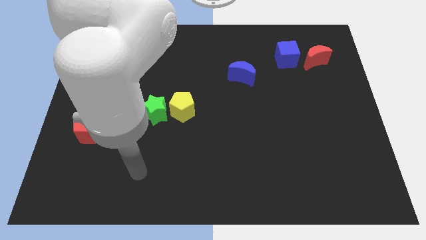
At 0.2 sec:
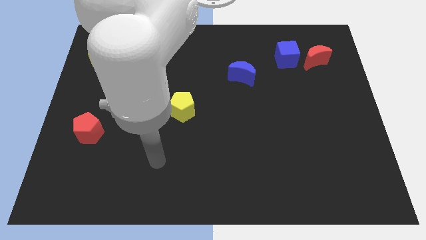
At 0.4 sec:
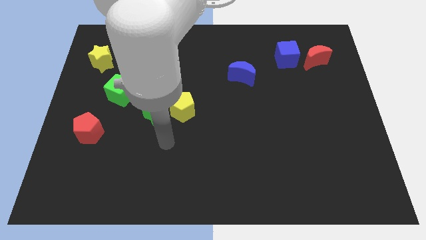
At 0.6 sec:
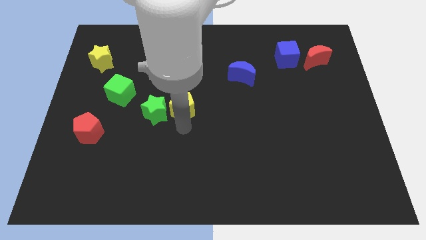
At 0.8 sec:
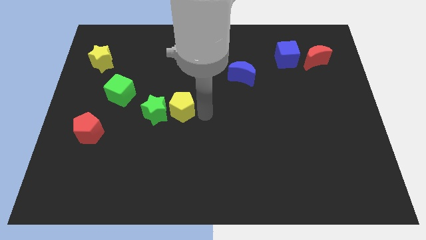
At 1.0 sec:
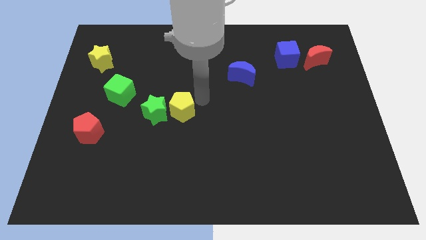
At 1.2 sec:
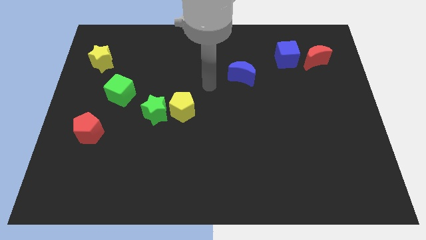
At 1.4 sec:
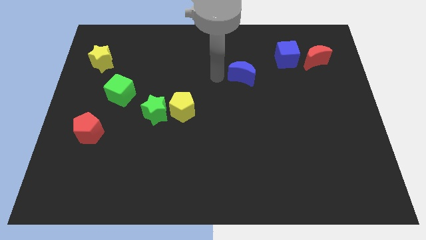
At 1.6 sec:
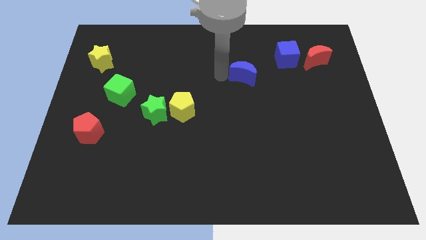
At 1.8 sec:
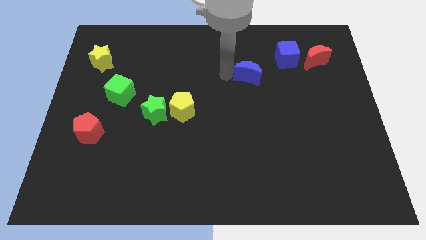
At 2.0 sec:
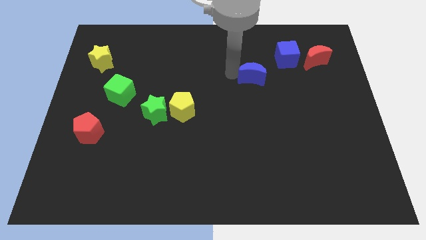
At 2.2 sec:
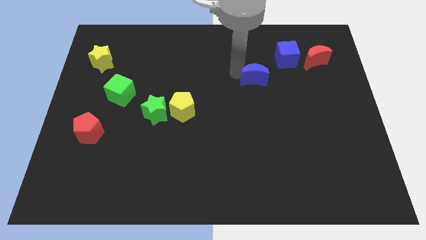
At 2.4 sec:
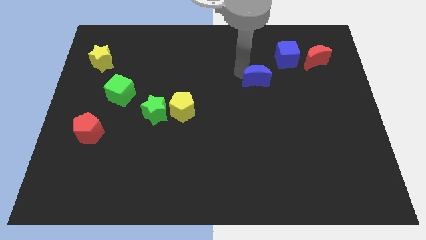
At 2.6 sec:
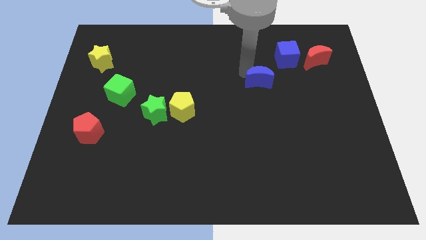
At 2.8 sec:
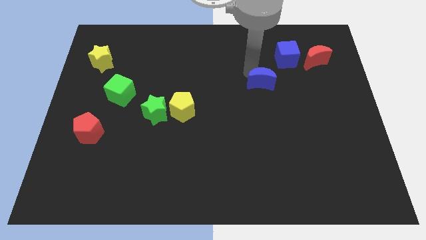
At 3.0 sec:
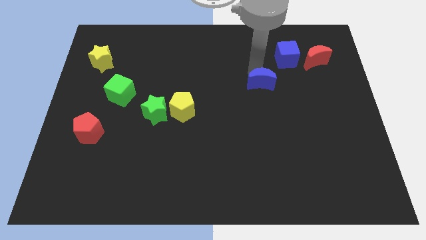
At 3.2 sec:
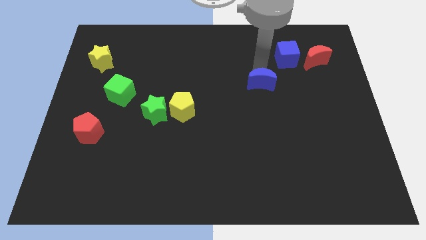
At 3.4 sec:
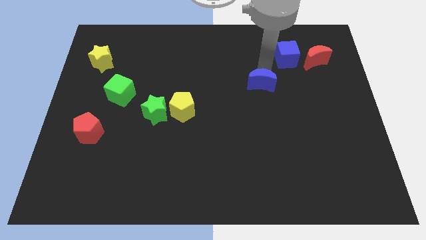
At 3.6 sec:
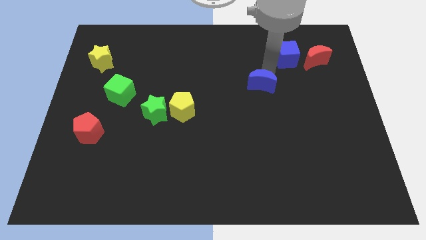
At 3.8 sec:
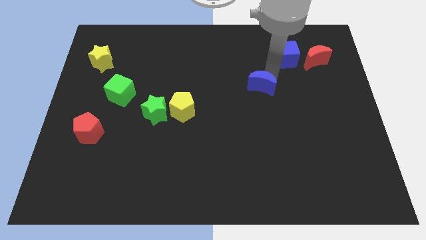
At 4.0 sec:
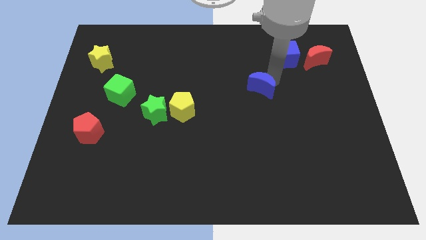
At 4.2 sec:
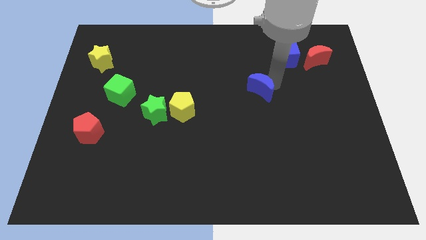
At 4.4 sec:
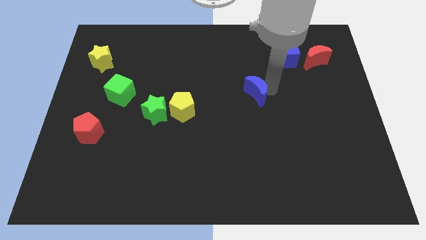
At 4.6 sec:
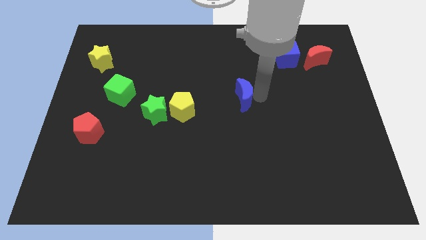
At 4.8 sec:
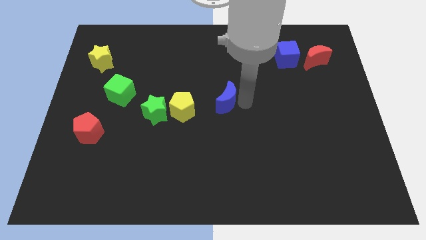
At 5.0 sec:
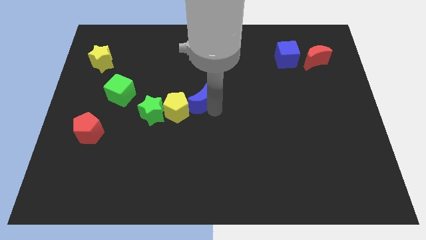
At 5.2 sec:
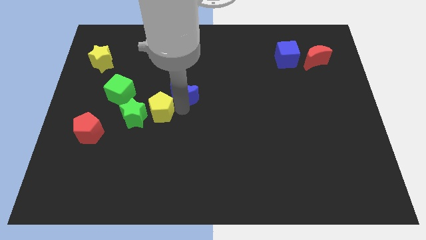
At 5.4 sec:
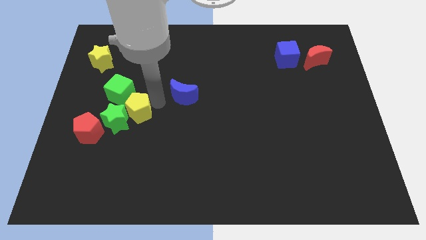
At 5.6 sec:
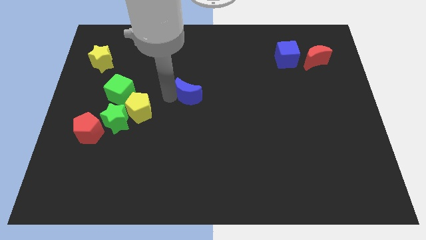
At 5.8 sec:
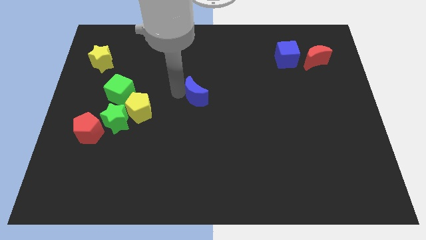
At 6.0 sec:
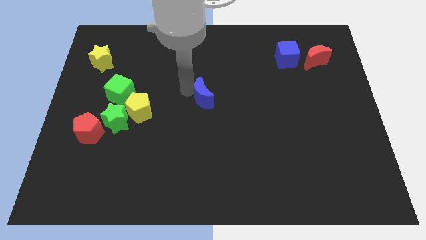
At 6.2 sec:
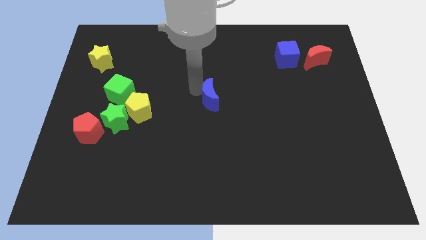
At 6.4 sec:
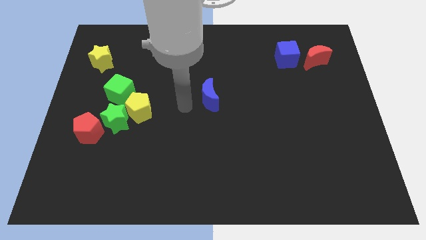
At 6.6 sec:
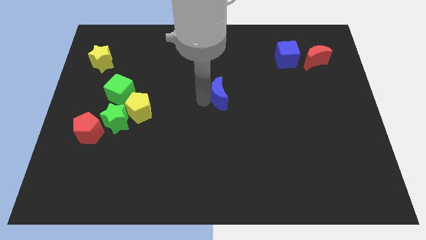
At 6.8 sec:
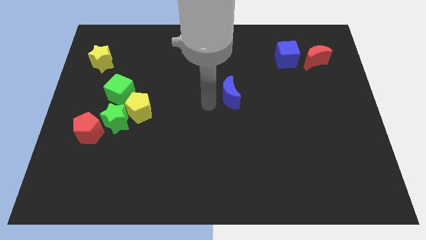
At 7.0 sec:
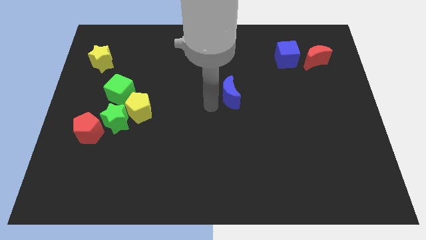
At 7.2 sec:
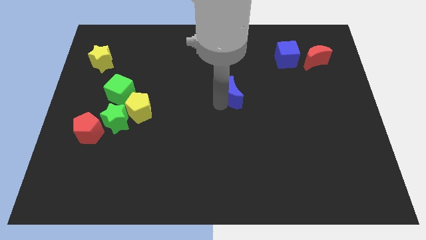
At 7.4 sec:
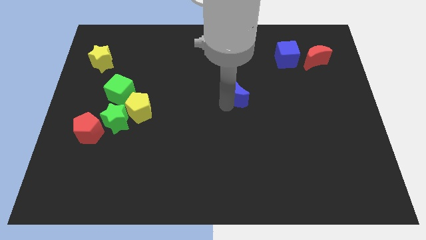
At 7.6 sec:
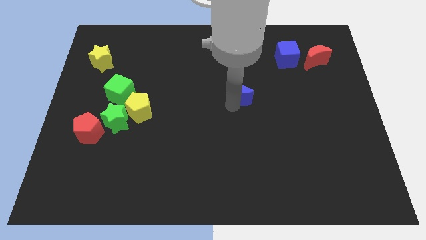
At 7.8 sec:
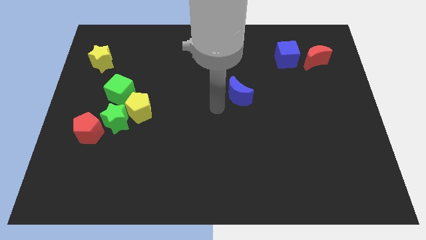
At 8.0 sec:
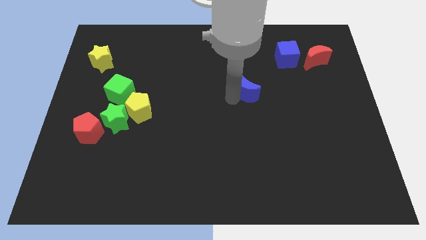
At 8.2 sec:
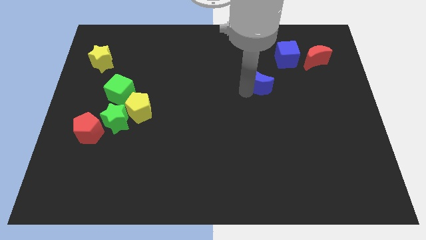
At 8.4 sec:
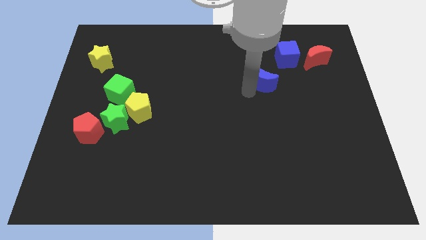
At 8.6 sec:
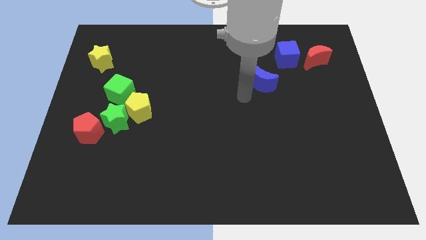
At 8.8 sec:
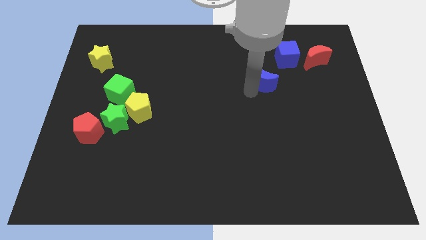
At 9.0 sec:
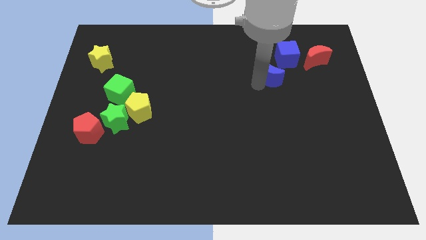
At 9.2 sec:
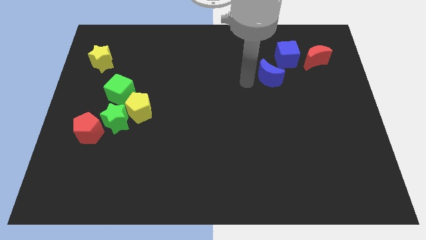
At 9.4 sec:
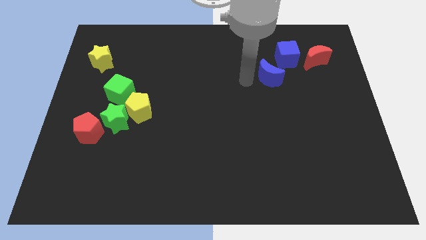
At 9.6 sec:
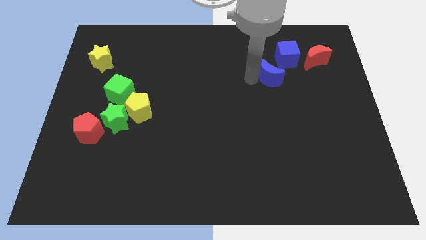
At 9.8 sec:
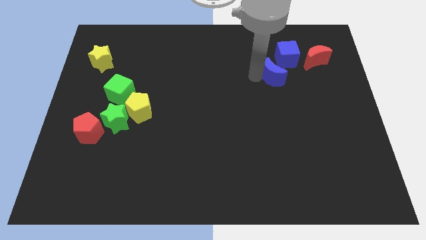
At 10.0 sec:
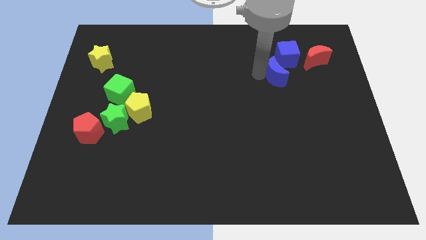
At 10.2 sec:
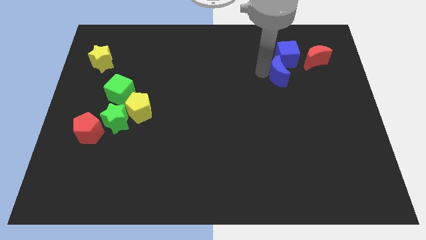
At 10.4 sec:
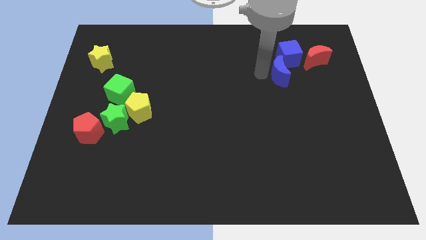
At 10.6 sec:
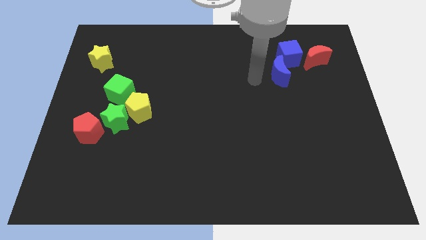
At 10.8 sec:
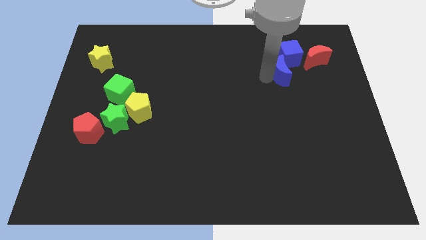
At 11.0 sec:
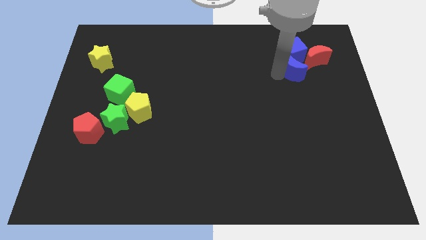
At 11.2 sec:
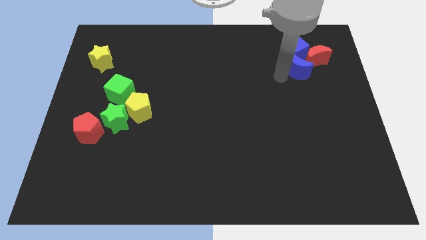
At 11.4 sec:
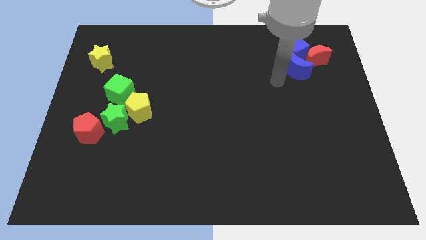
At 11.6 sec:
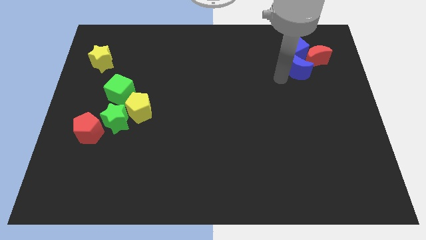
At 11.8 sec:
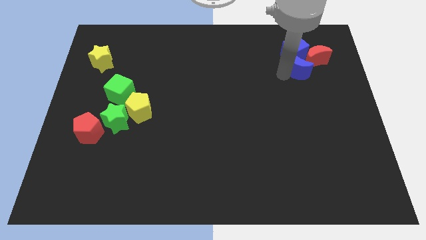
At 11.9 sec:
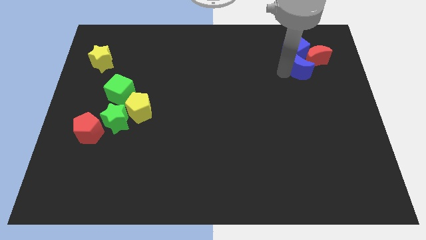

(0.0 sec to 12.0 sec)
move the blue moon towards the red moon

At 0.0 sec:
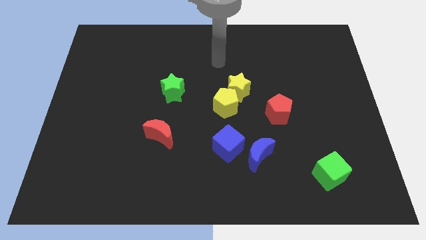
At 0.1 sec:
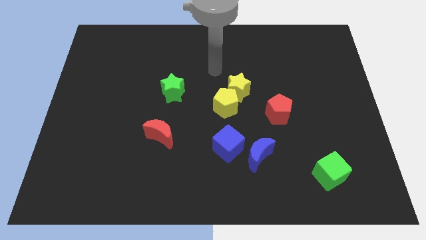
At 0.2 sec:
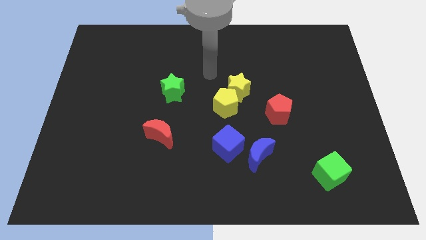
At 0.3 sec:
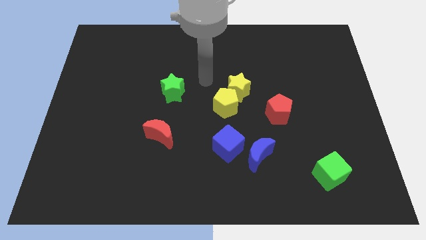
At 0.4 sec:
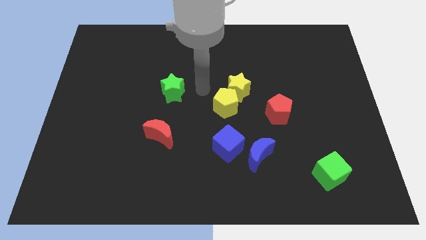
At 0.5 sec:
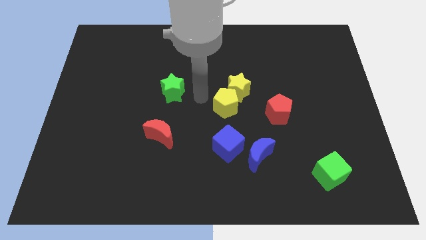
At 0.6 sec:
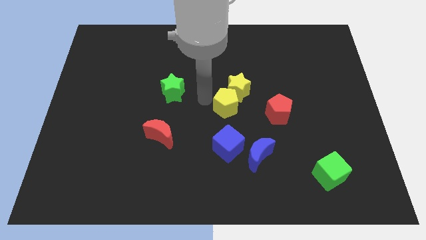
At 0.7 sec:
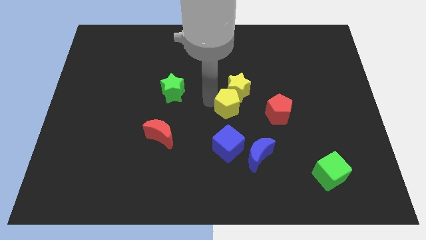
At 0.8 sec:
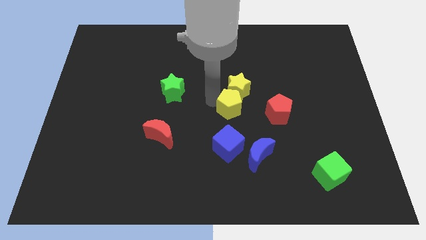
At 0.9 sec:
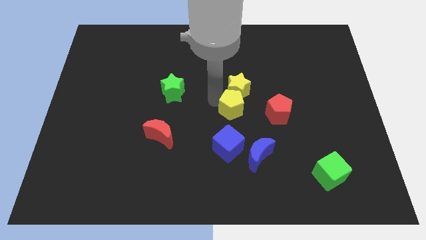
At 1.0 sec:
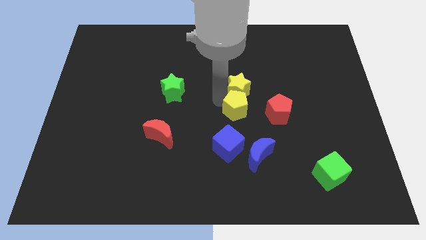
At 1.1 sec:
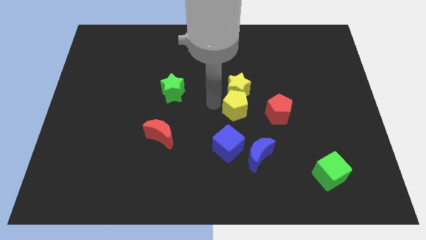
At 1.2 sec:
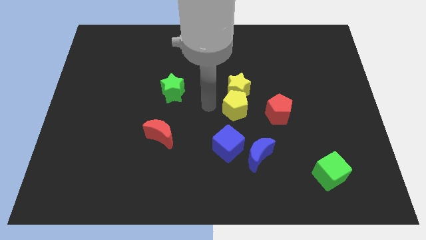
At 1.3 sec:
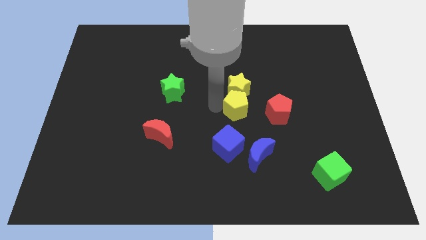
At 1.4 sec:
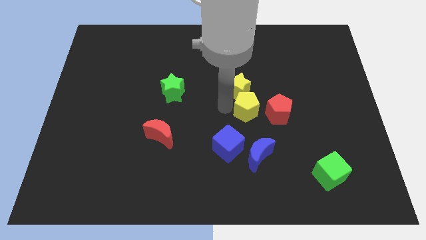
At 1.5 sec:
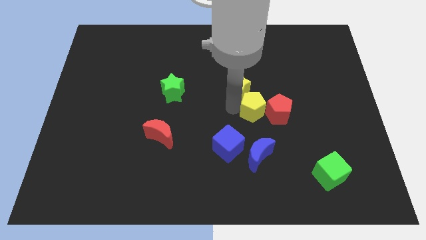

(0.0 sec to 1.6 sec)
slide the yellow pentagon to the red pentagon
